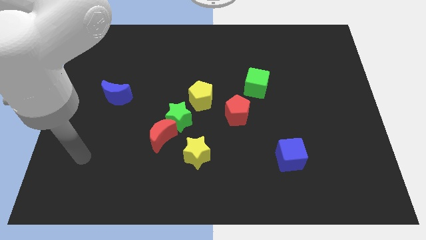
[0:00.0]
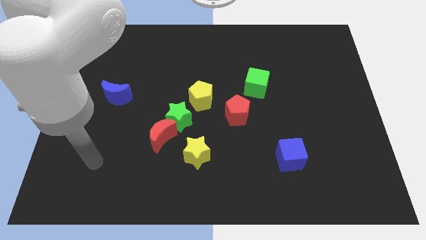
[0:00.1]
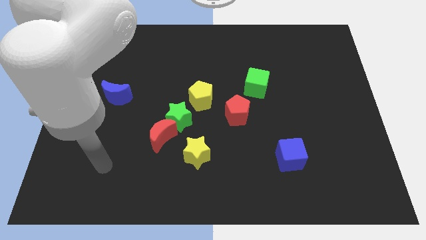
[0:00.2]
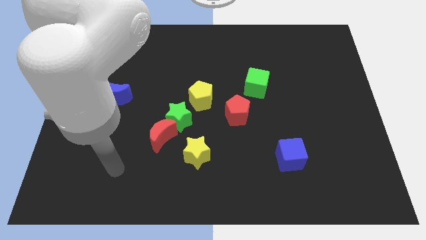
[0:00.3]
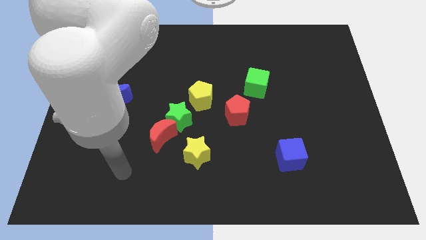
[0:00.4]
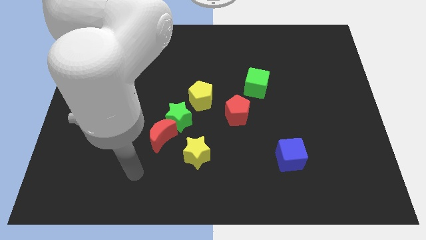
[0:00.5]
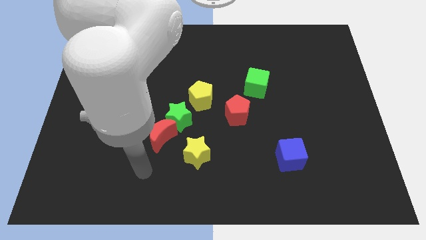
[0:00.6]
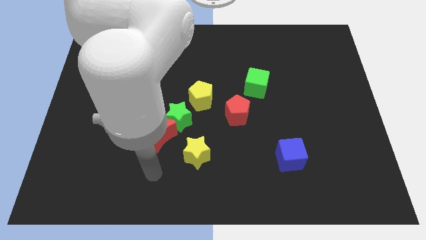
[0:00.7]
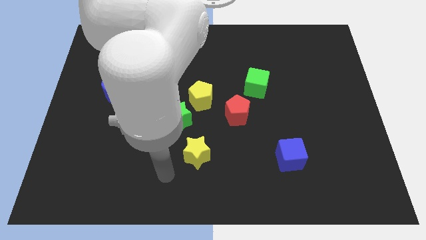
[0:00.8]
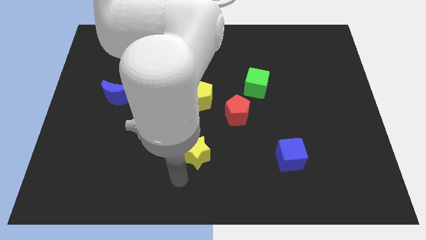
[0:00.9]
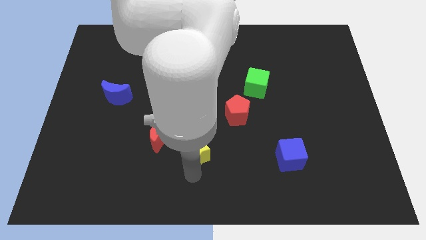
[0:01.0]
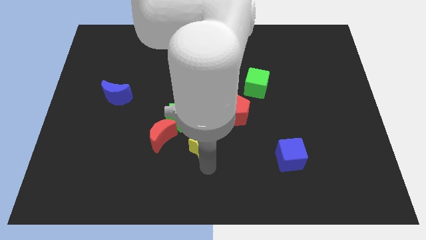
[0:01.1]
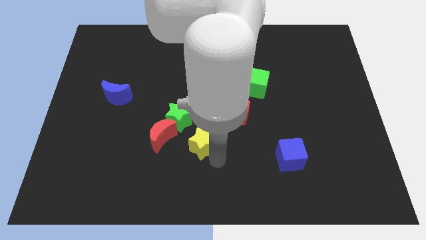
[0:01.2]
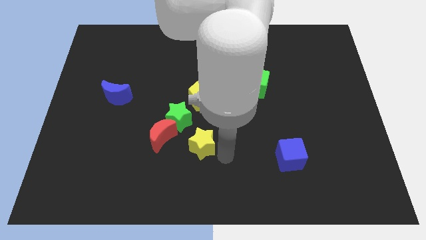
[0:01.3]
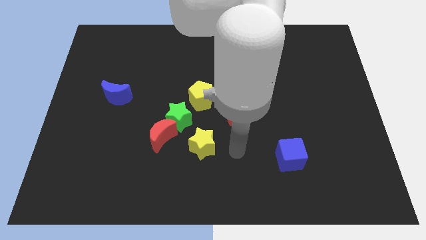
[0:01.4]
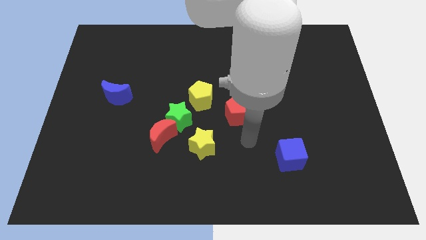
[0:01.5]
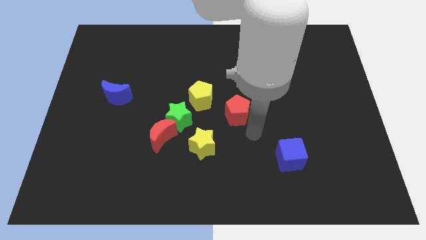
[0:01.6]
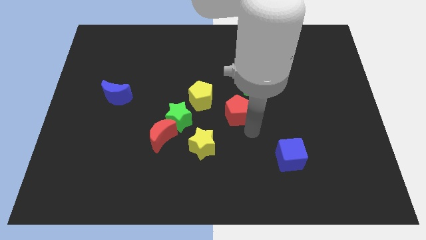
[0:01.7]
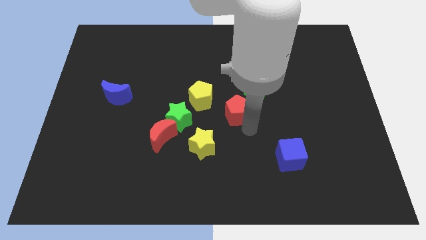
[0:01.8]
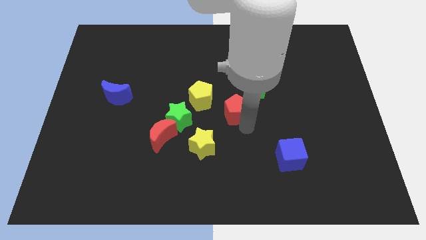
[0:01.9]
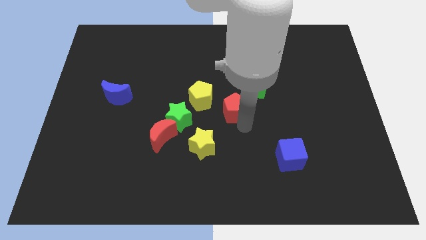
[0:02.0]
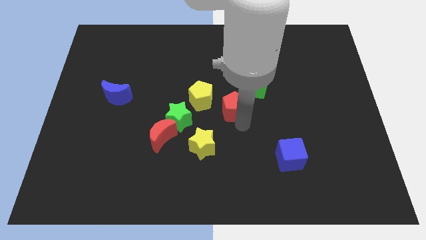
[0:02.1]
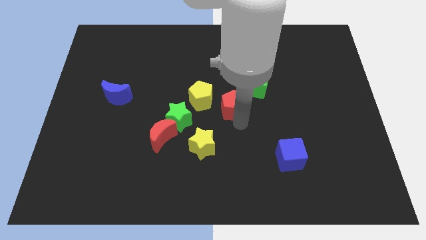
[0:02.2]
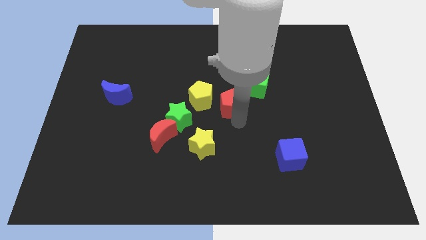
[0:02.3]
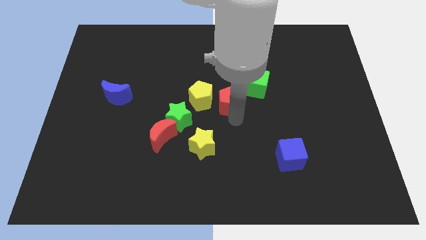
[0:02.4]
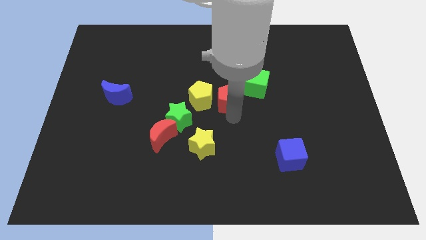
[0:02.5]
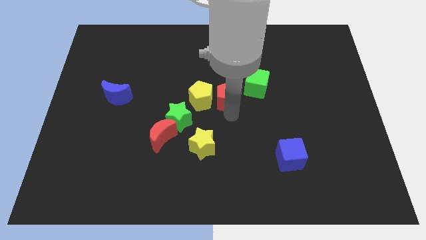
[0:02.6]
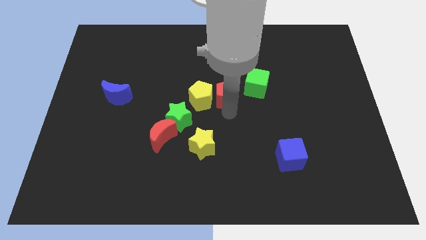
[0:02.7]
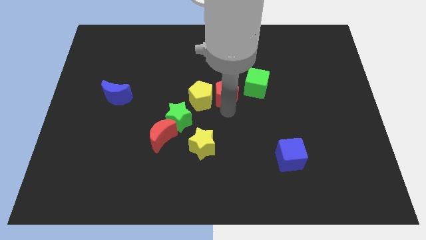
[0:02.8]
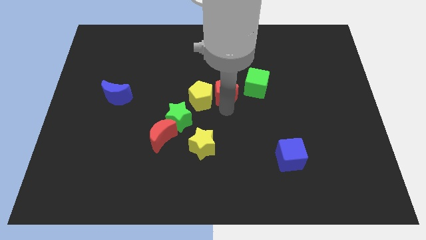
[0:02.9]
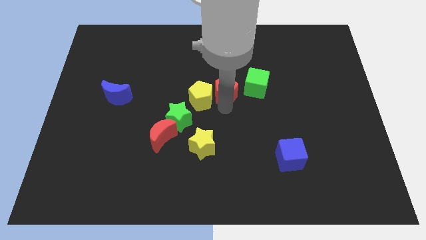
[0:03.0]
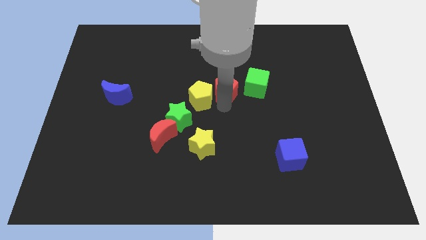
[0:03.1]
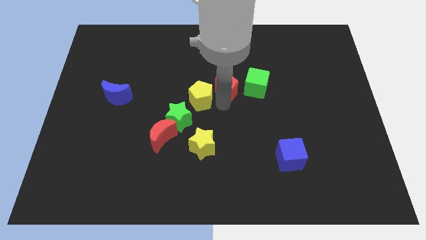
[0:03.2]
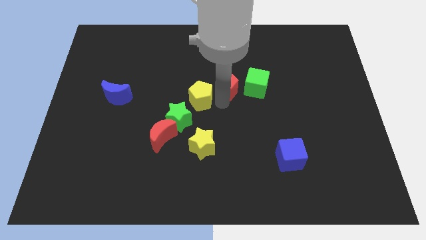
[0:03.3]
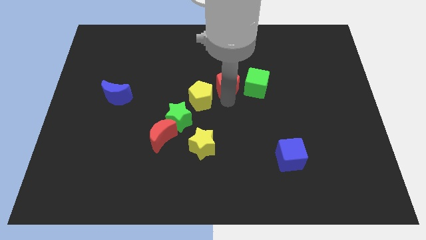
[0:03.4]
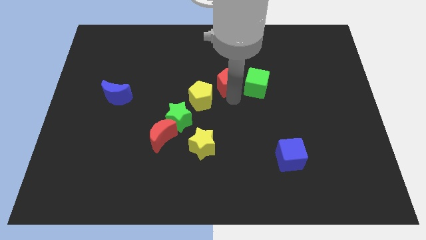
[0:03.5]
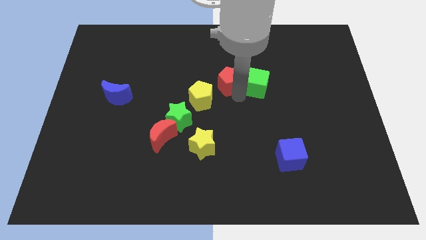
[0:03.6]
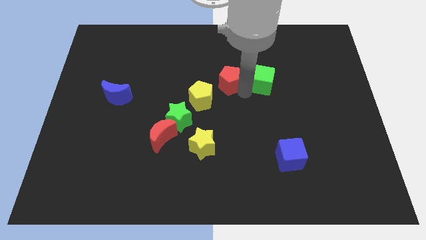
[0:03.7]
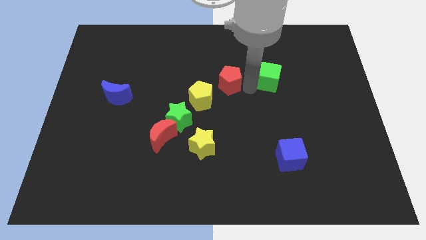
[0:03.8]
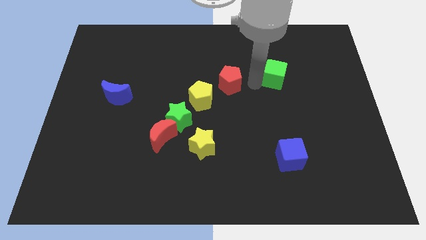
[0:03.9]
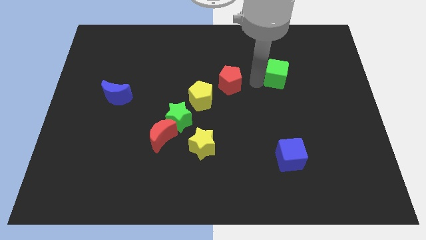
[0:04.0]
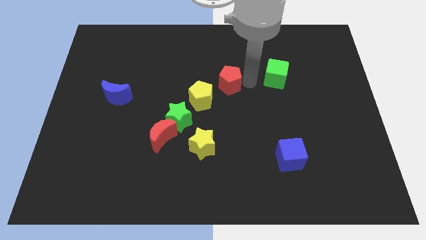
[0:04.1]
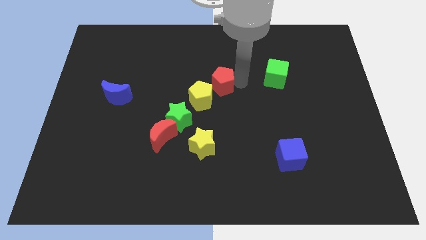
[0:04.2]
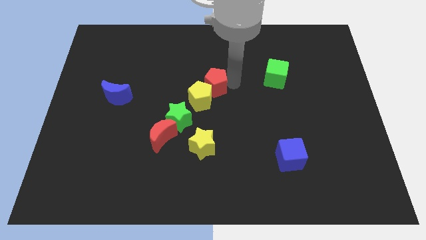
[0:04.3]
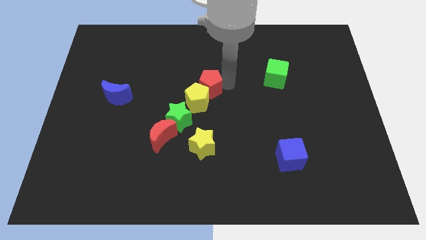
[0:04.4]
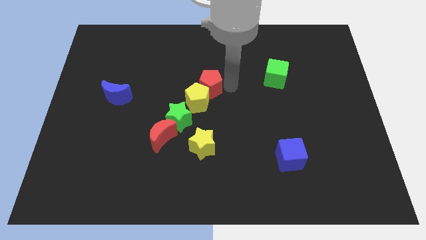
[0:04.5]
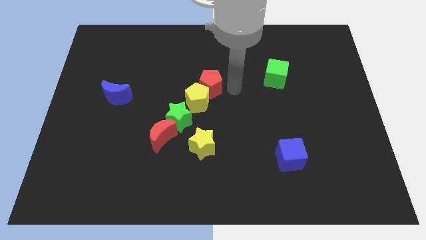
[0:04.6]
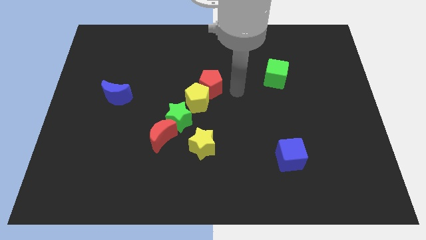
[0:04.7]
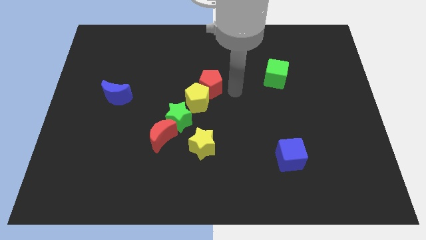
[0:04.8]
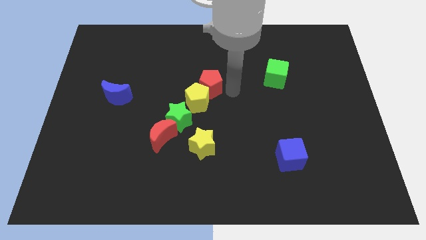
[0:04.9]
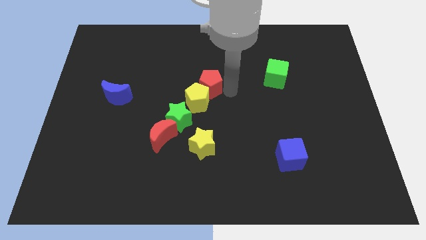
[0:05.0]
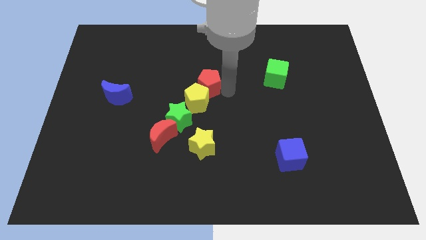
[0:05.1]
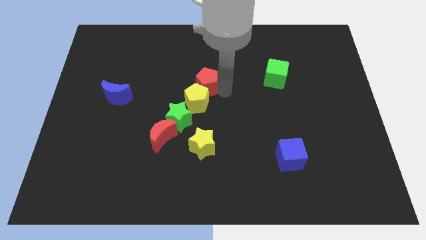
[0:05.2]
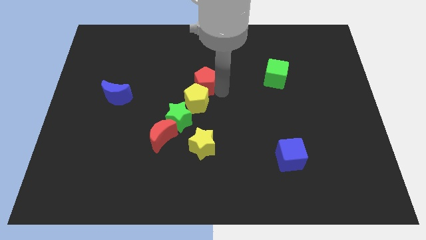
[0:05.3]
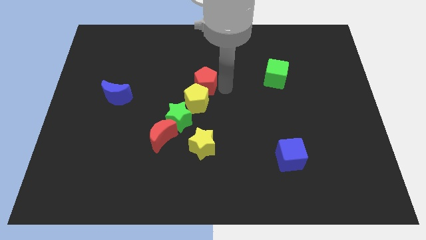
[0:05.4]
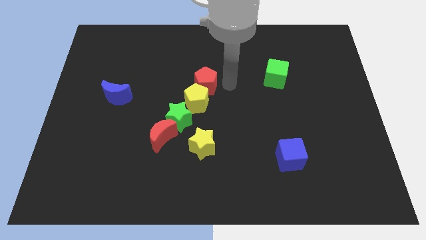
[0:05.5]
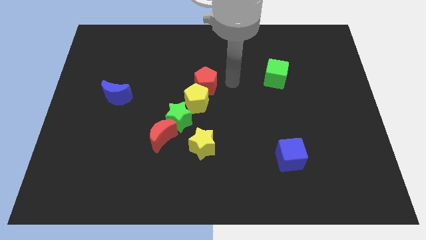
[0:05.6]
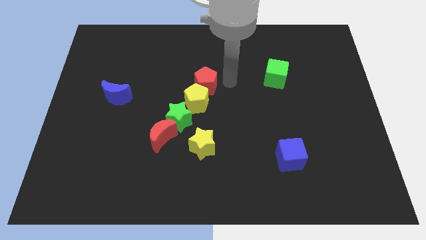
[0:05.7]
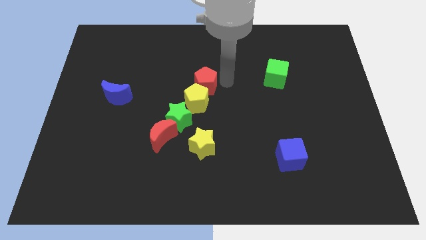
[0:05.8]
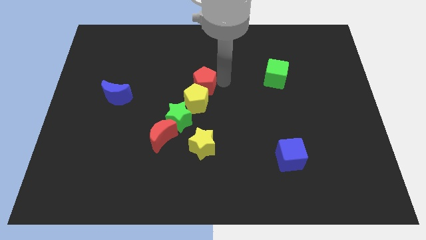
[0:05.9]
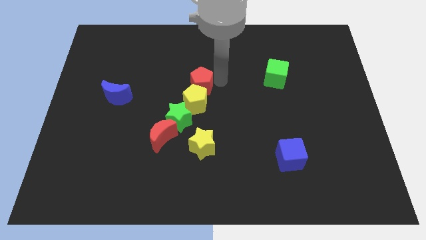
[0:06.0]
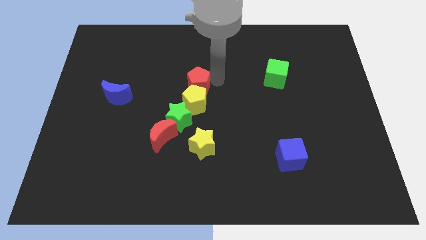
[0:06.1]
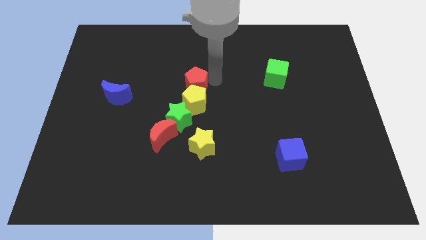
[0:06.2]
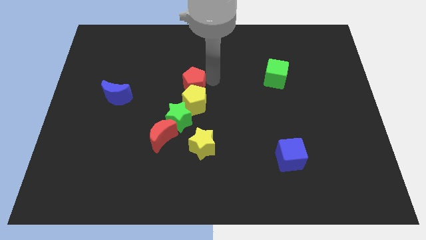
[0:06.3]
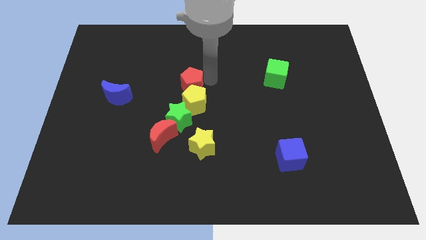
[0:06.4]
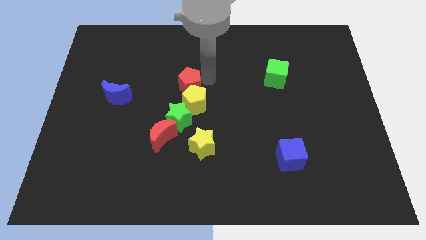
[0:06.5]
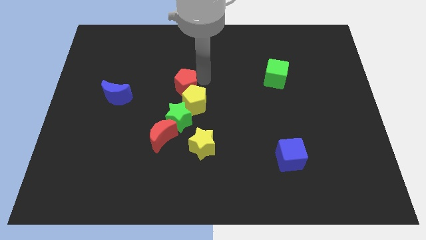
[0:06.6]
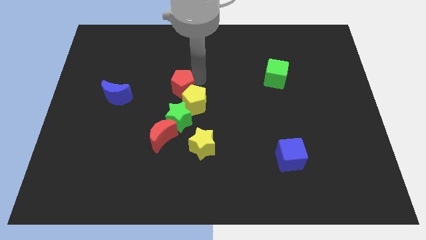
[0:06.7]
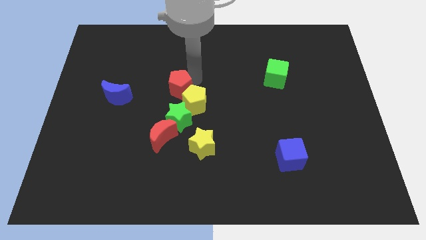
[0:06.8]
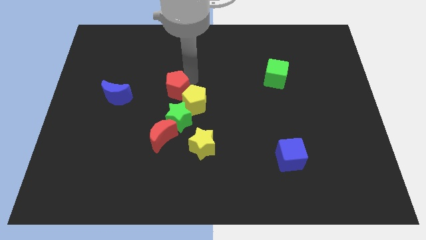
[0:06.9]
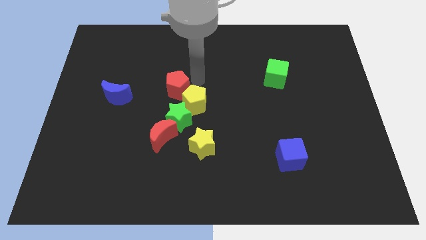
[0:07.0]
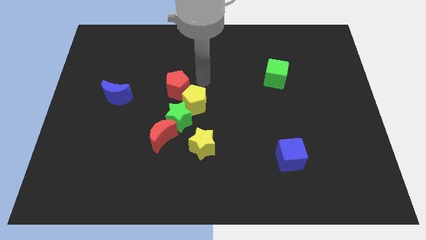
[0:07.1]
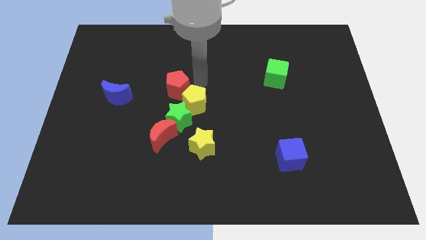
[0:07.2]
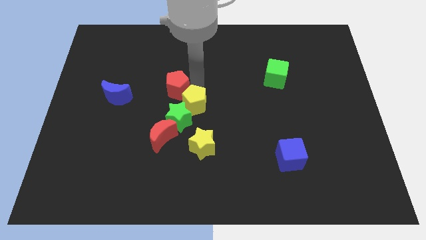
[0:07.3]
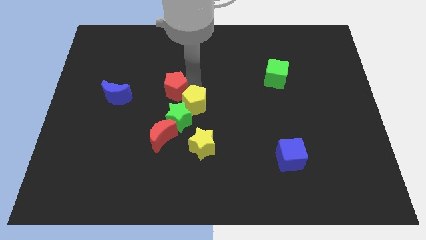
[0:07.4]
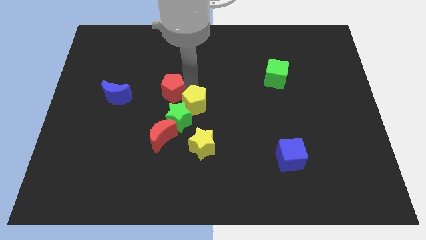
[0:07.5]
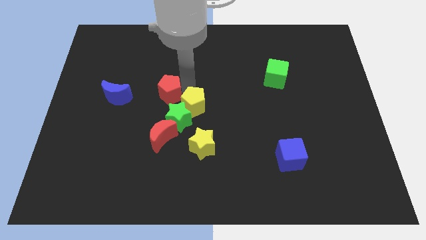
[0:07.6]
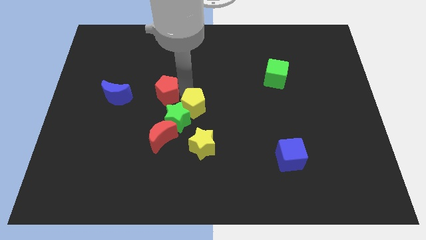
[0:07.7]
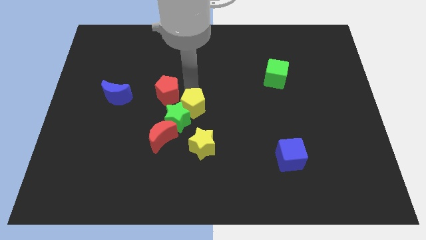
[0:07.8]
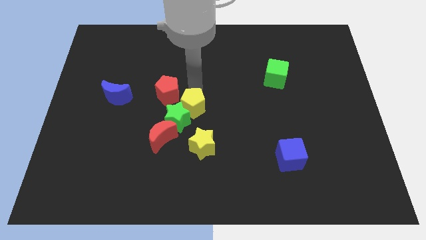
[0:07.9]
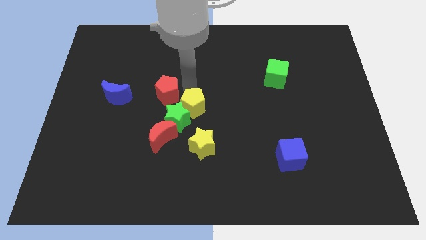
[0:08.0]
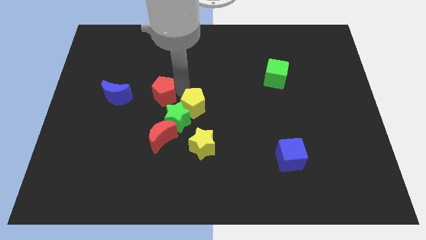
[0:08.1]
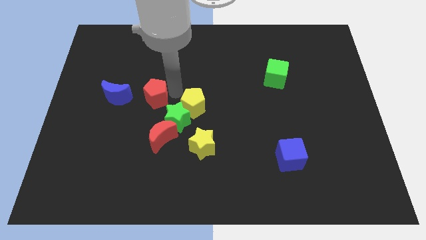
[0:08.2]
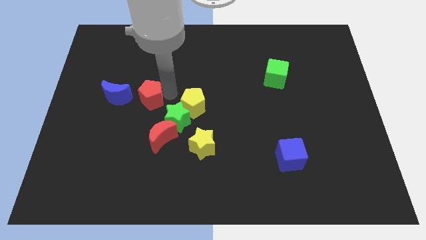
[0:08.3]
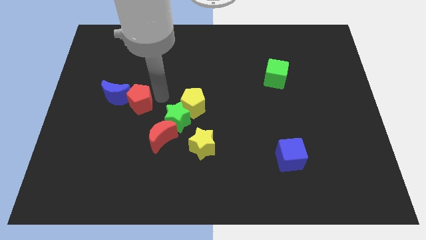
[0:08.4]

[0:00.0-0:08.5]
push the red pentagon next to the blue moon
